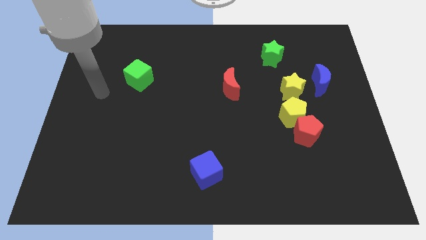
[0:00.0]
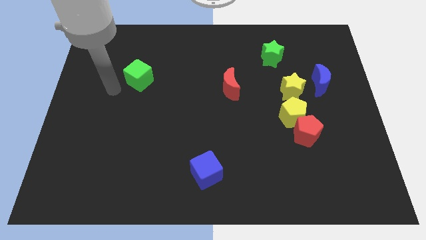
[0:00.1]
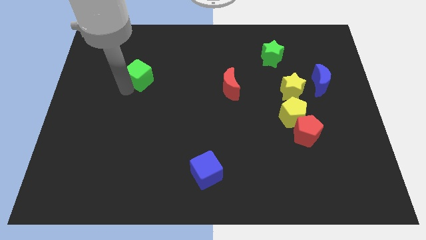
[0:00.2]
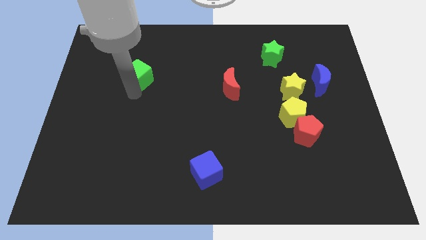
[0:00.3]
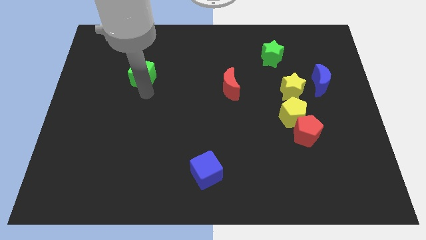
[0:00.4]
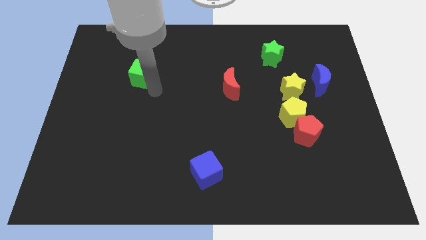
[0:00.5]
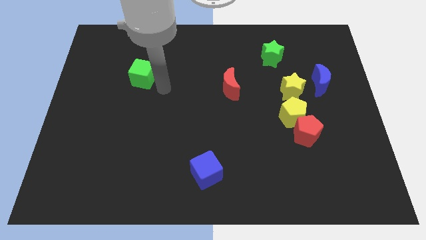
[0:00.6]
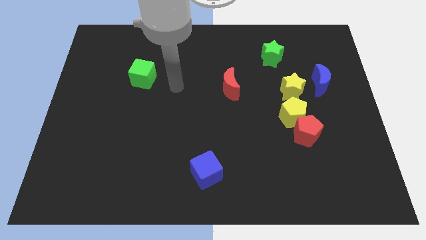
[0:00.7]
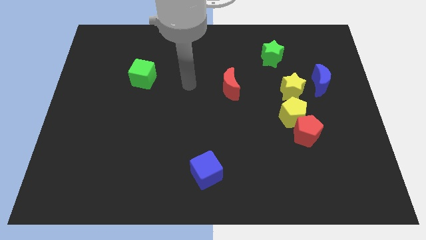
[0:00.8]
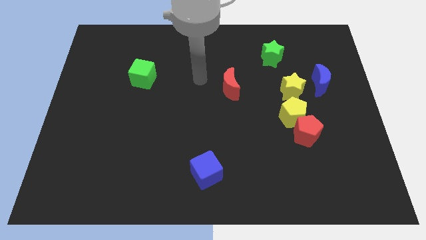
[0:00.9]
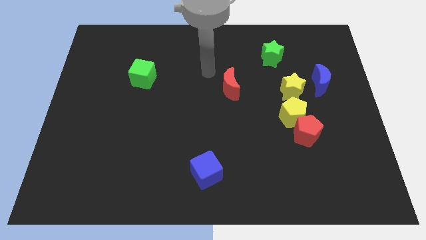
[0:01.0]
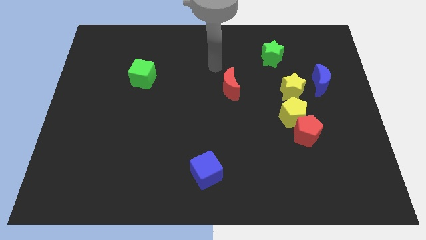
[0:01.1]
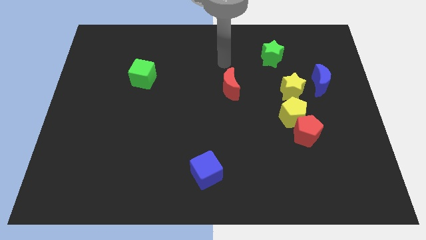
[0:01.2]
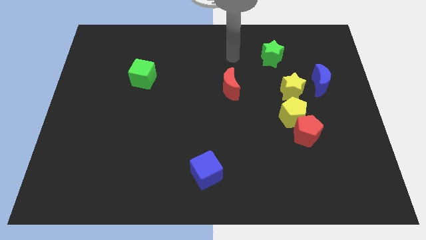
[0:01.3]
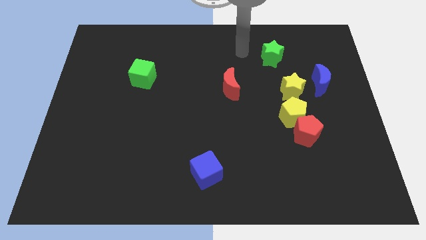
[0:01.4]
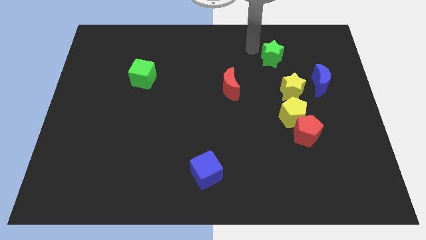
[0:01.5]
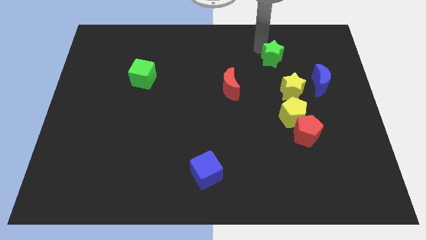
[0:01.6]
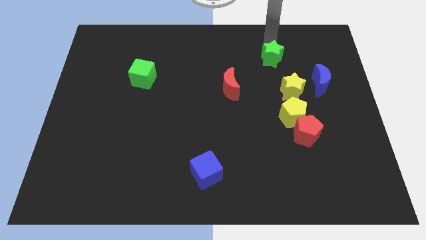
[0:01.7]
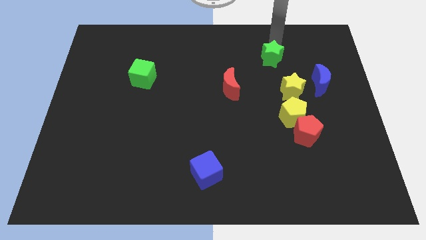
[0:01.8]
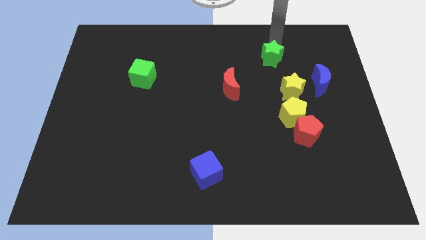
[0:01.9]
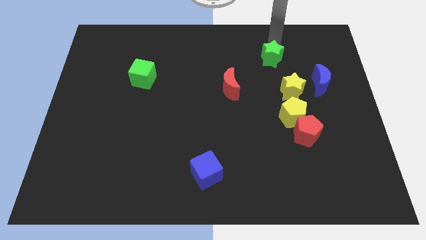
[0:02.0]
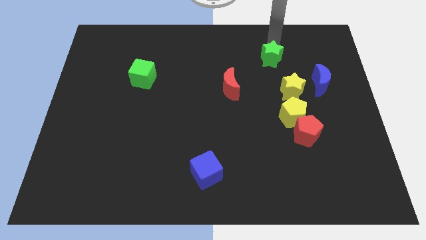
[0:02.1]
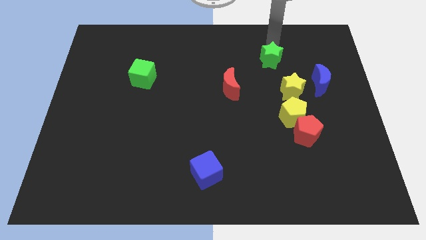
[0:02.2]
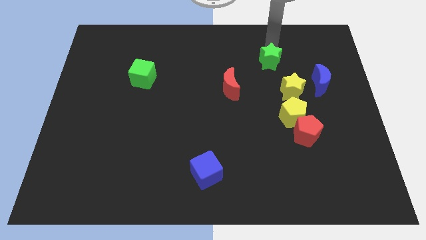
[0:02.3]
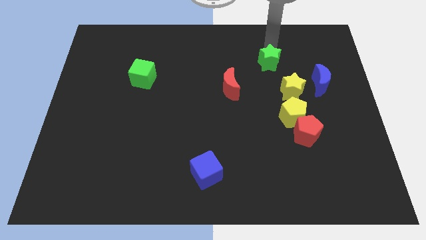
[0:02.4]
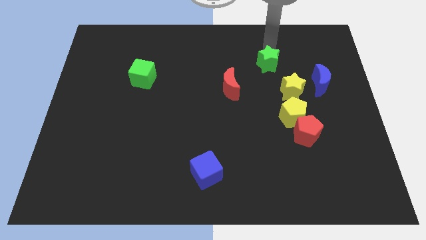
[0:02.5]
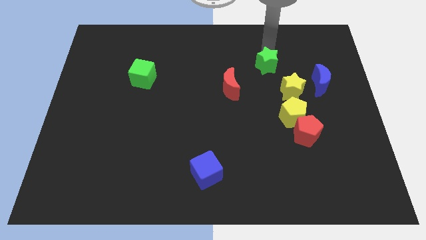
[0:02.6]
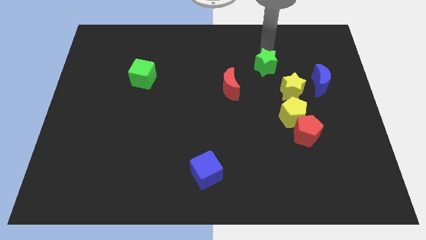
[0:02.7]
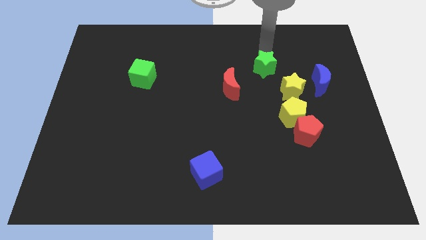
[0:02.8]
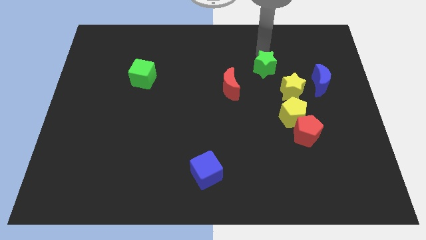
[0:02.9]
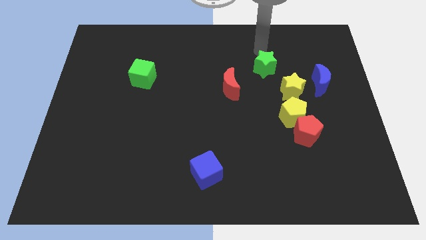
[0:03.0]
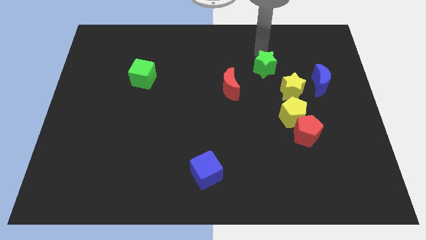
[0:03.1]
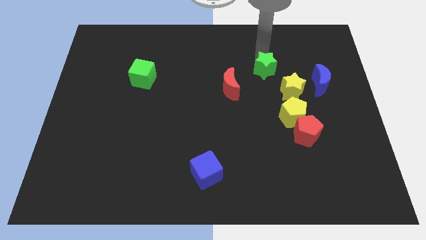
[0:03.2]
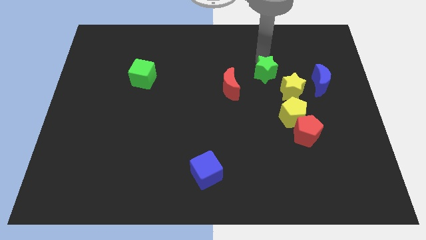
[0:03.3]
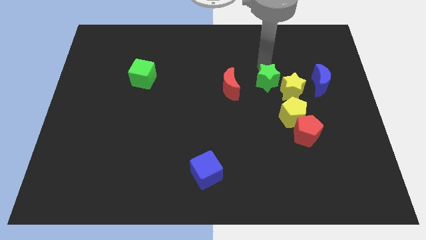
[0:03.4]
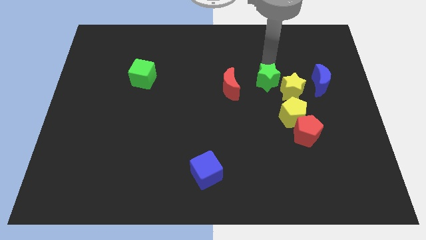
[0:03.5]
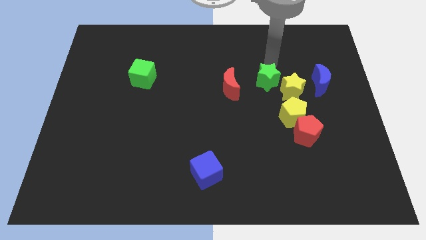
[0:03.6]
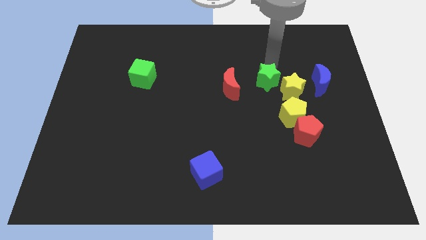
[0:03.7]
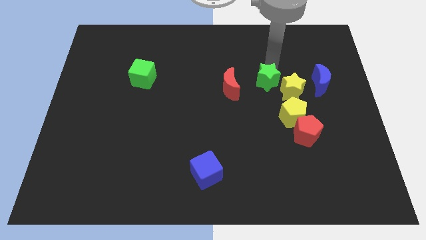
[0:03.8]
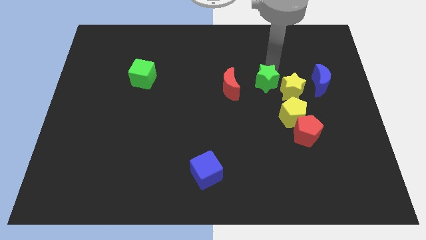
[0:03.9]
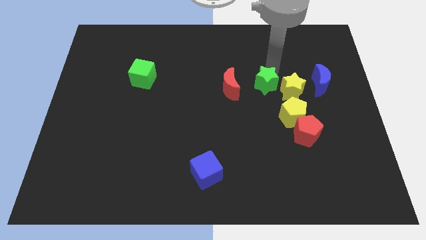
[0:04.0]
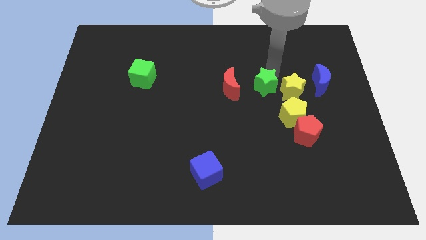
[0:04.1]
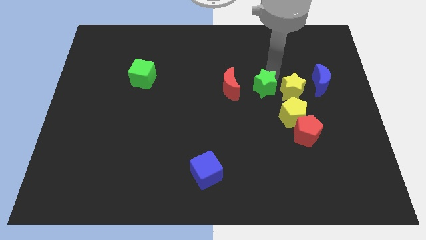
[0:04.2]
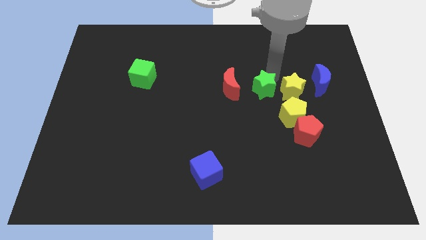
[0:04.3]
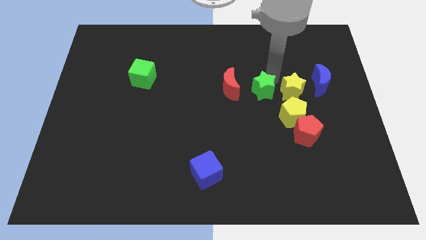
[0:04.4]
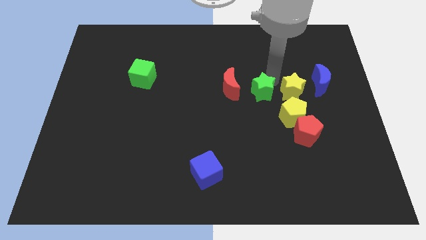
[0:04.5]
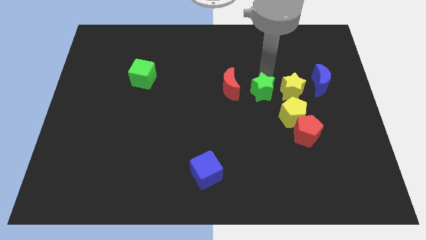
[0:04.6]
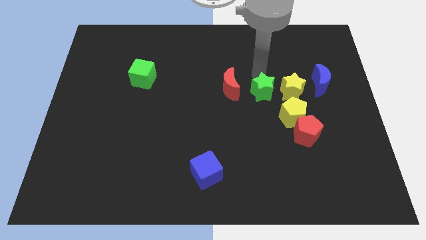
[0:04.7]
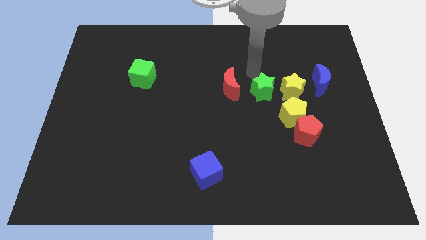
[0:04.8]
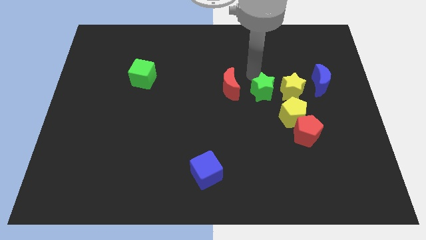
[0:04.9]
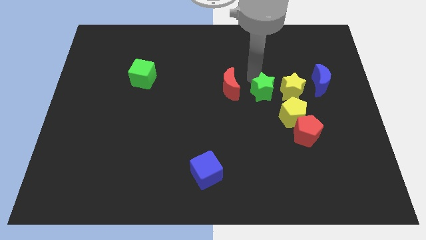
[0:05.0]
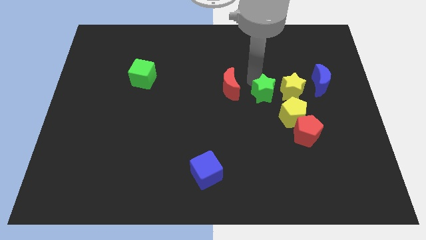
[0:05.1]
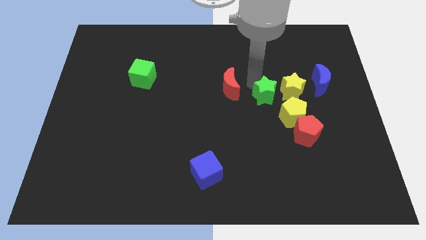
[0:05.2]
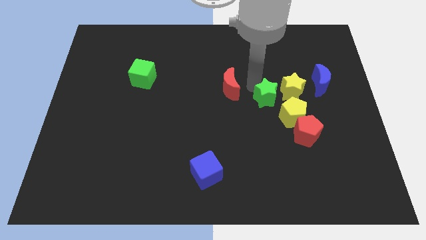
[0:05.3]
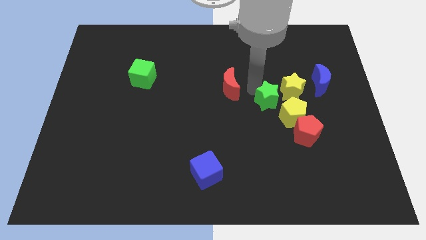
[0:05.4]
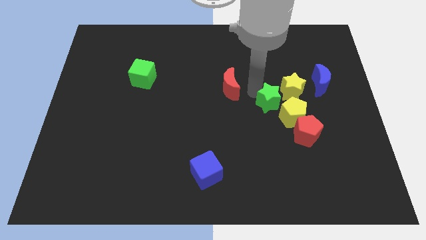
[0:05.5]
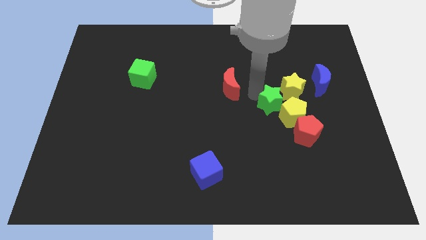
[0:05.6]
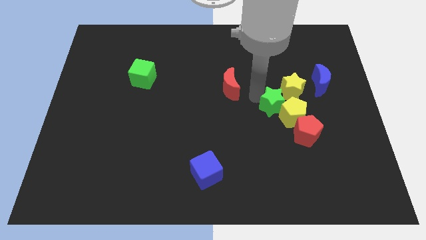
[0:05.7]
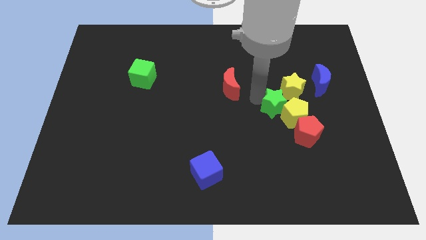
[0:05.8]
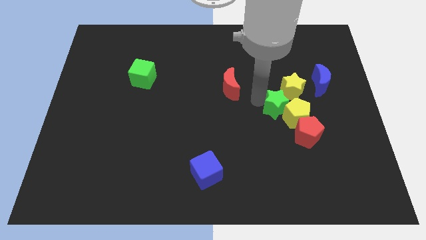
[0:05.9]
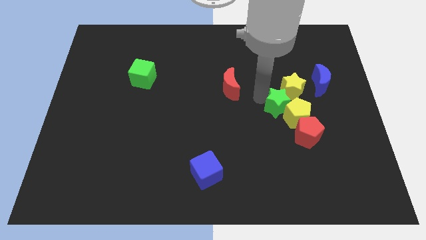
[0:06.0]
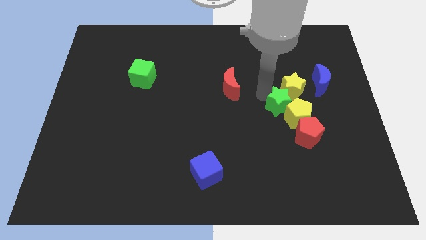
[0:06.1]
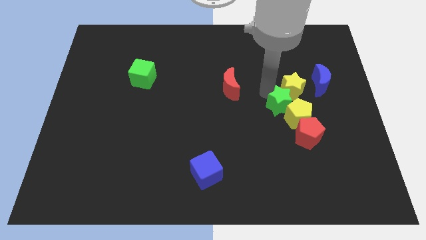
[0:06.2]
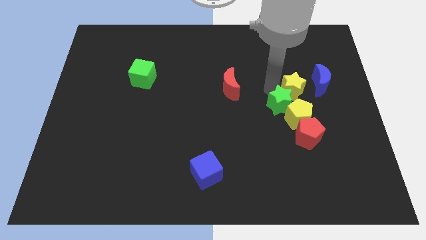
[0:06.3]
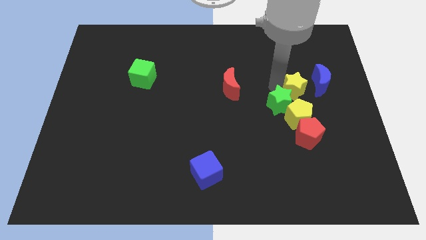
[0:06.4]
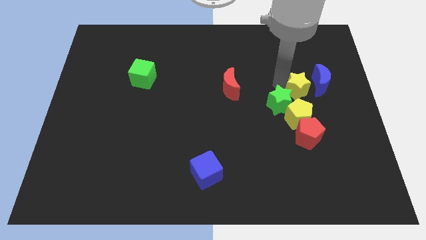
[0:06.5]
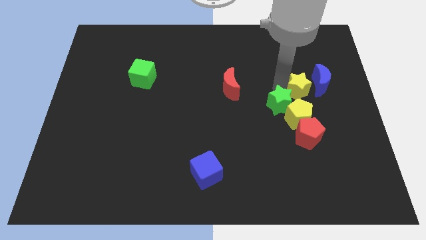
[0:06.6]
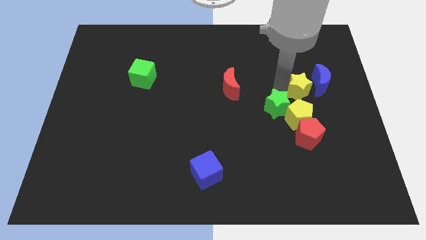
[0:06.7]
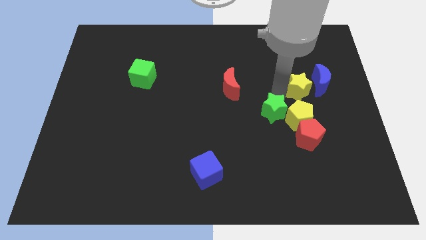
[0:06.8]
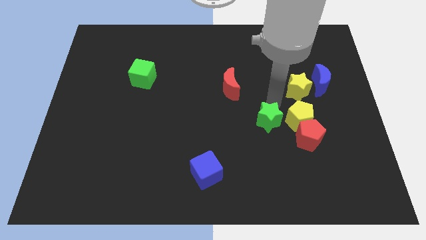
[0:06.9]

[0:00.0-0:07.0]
move the green star down

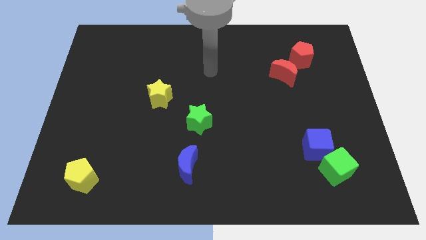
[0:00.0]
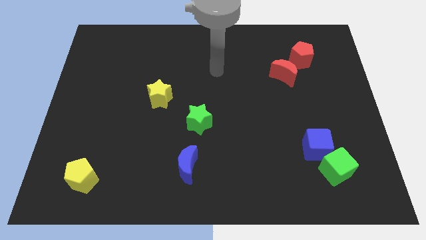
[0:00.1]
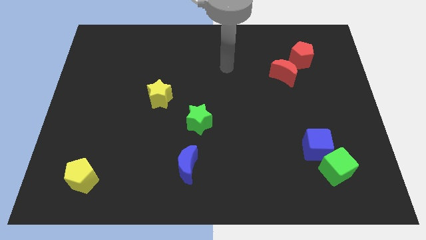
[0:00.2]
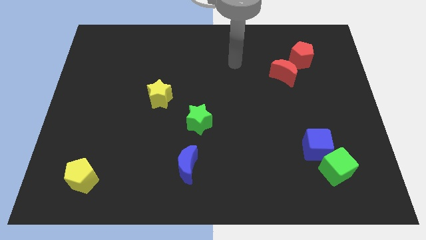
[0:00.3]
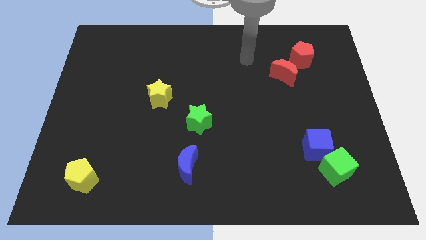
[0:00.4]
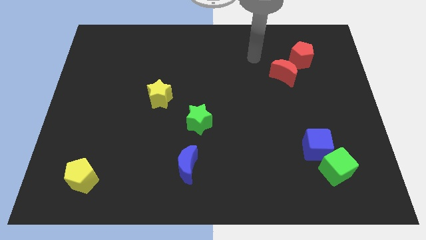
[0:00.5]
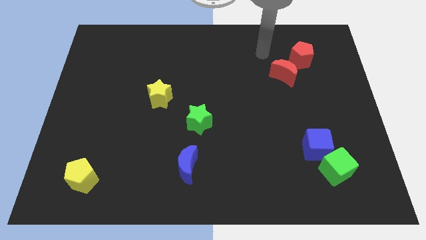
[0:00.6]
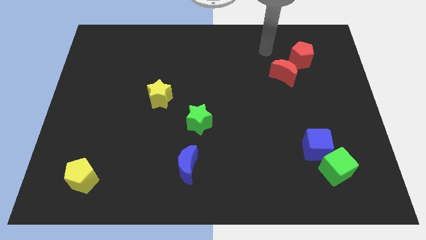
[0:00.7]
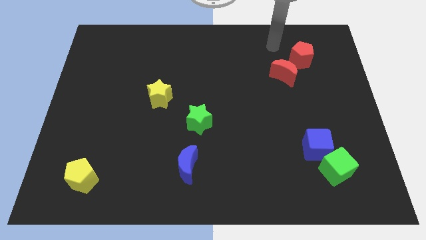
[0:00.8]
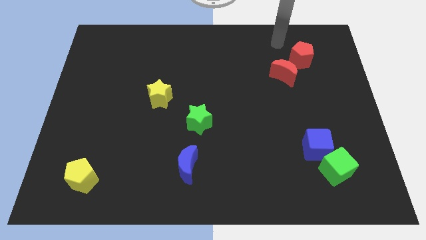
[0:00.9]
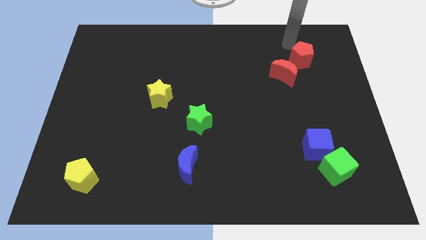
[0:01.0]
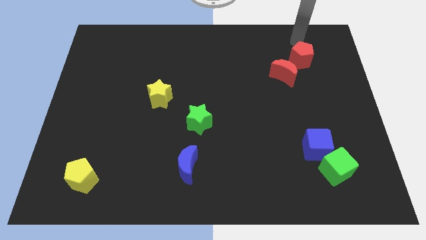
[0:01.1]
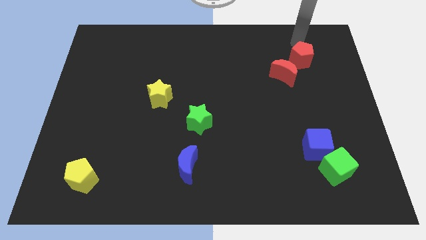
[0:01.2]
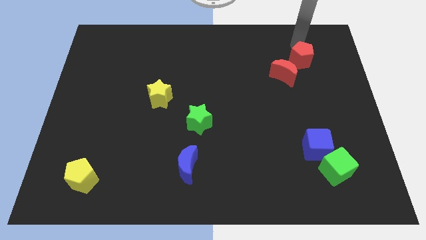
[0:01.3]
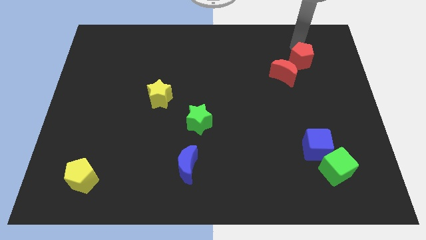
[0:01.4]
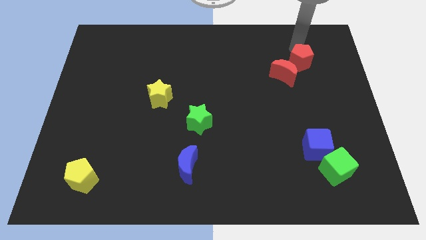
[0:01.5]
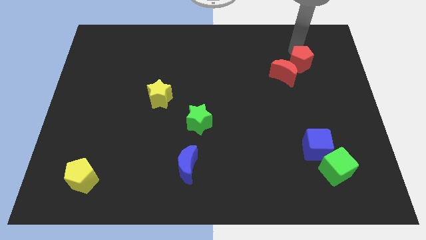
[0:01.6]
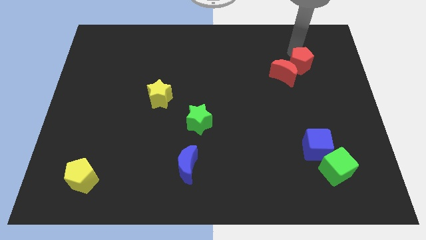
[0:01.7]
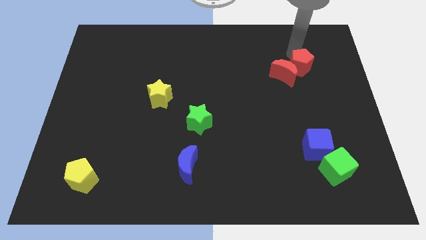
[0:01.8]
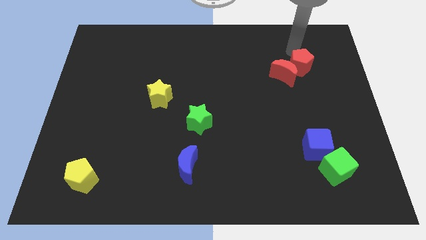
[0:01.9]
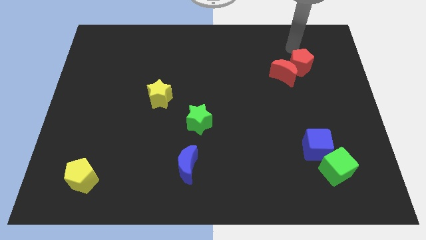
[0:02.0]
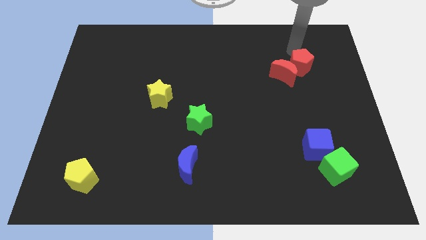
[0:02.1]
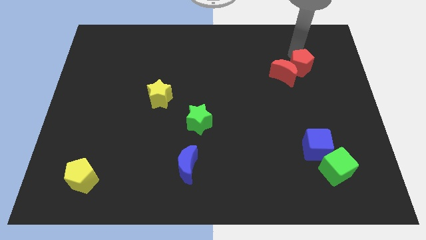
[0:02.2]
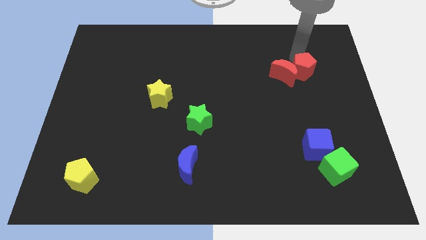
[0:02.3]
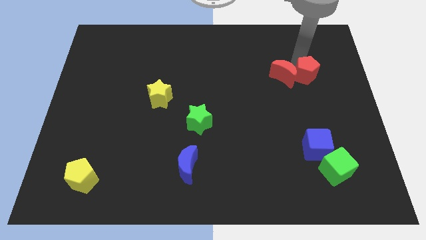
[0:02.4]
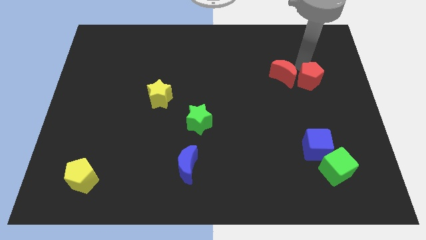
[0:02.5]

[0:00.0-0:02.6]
slightly slide the red pentagon downwards
